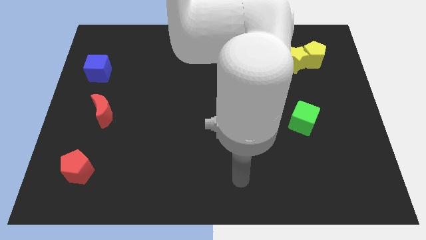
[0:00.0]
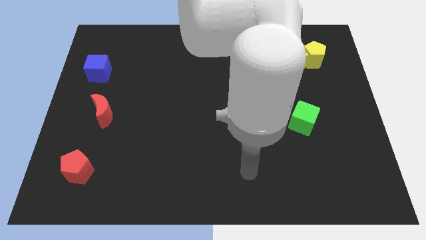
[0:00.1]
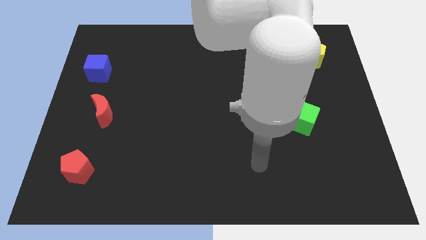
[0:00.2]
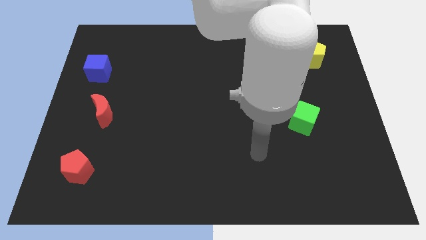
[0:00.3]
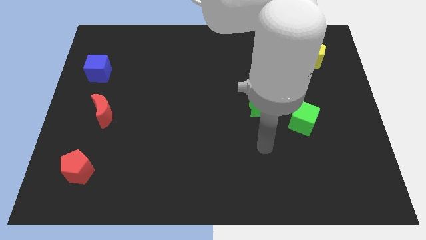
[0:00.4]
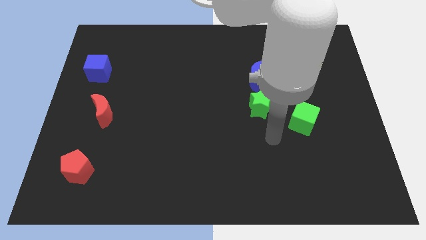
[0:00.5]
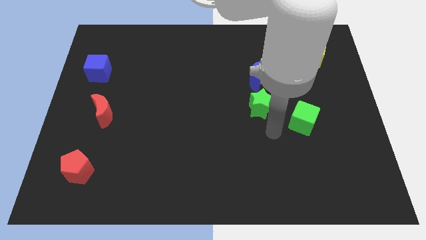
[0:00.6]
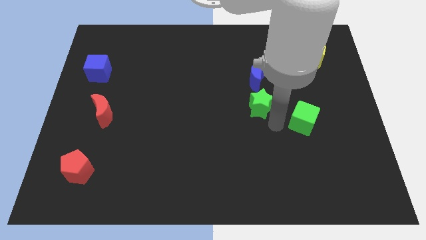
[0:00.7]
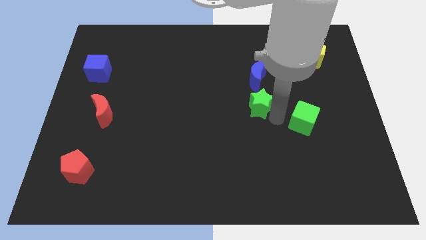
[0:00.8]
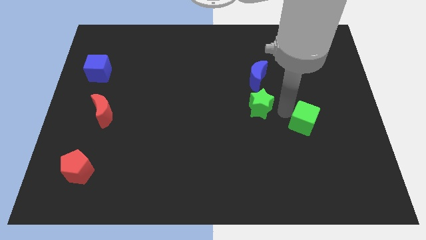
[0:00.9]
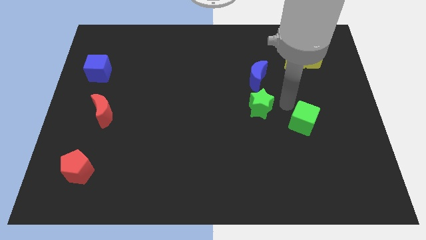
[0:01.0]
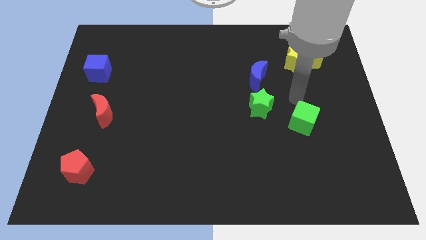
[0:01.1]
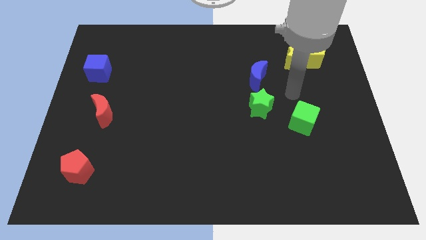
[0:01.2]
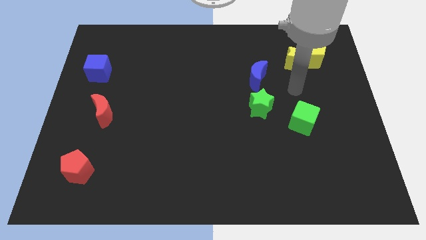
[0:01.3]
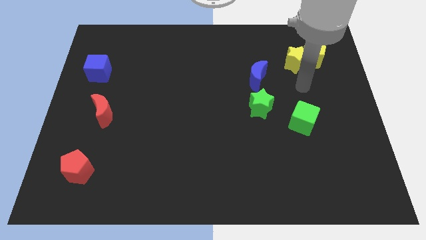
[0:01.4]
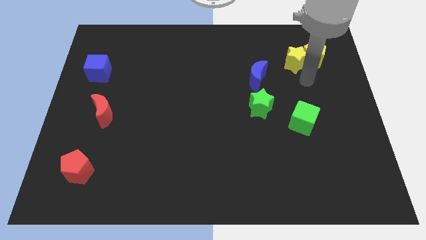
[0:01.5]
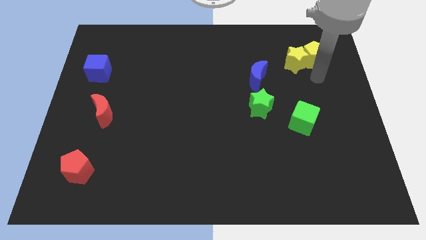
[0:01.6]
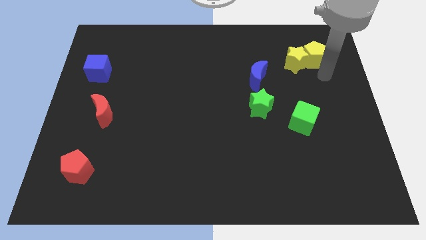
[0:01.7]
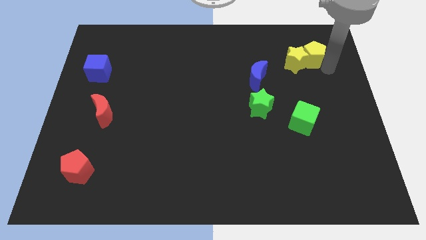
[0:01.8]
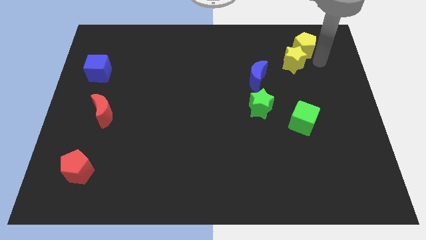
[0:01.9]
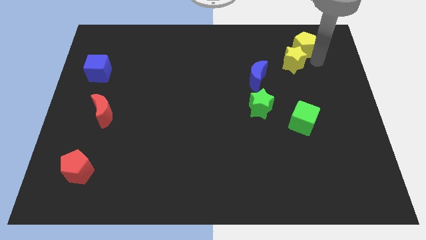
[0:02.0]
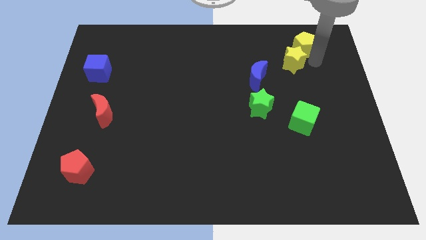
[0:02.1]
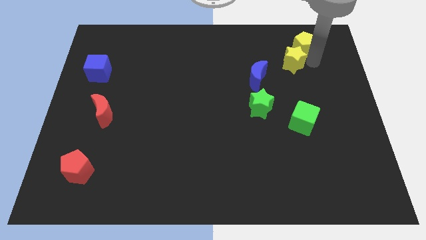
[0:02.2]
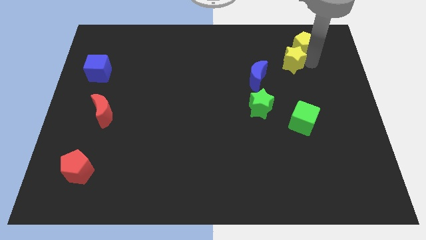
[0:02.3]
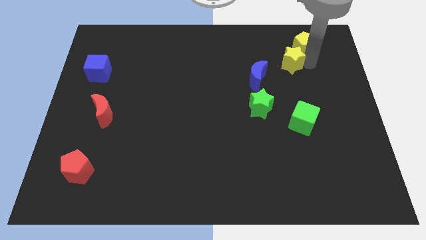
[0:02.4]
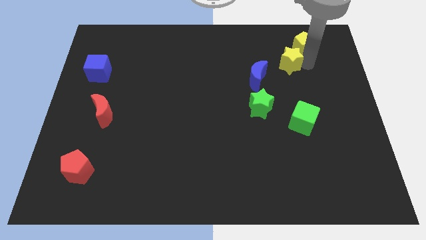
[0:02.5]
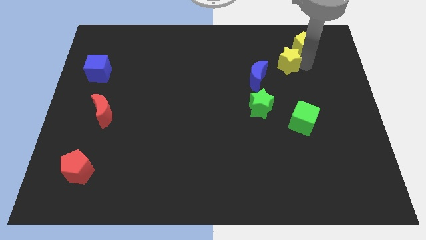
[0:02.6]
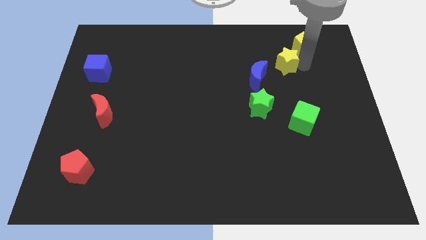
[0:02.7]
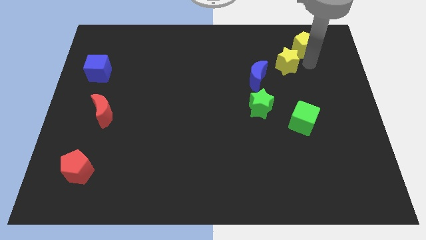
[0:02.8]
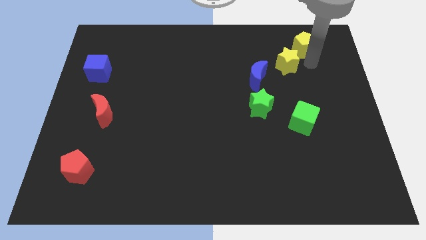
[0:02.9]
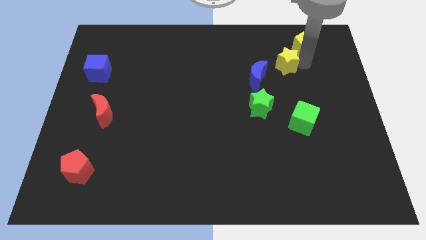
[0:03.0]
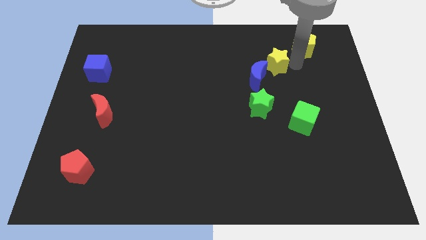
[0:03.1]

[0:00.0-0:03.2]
move the yellow star away from the yellow pentagon

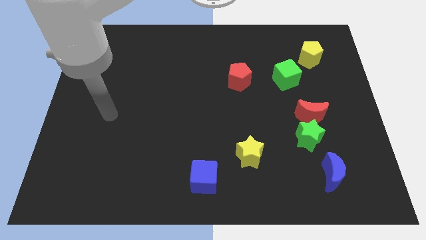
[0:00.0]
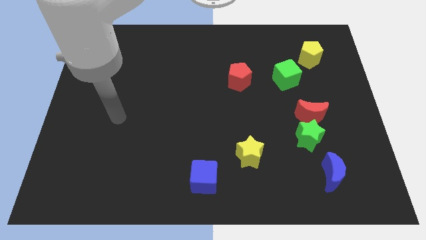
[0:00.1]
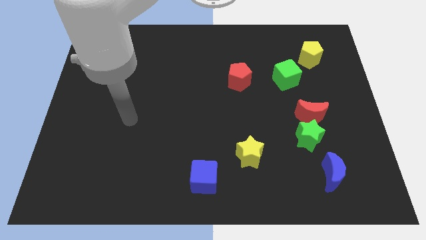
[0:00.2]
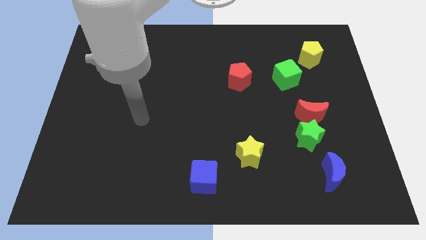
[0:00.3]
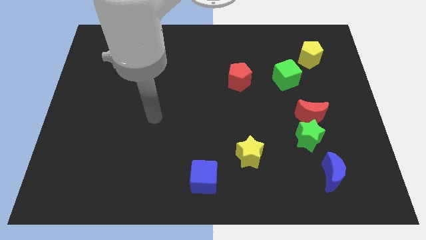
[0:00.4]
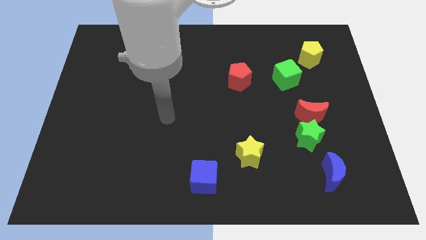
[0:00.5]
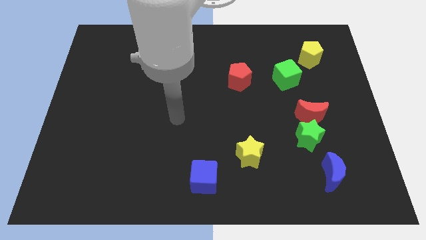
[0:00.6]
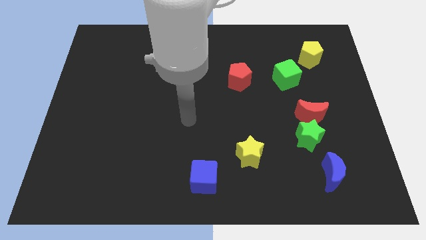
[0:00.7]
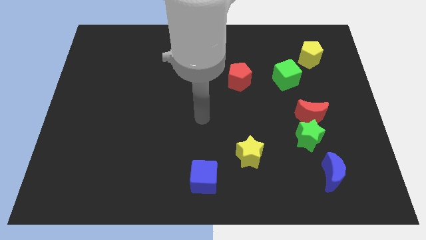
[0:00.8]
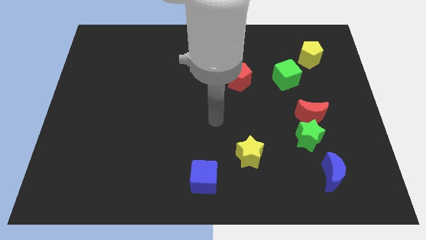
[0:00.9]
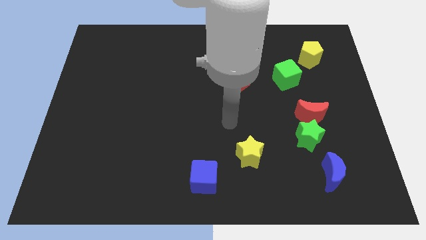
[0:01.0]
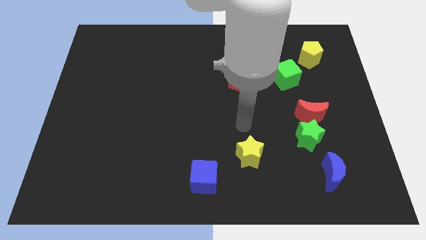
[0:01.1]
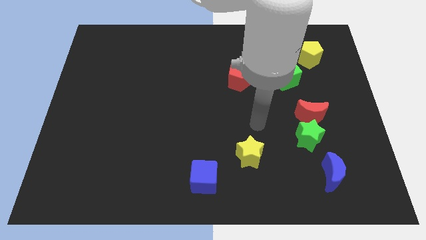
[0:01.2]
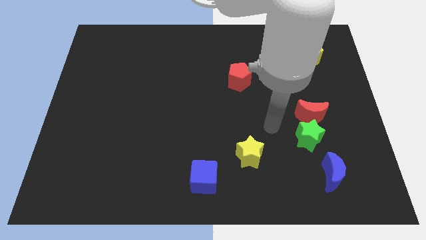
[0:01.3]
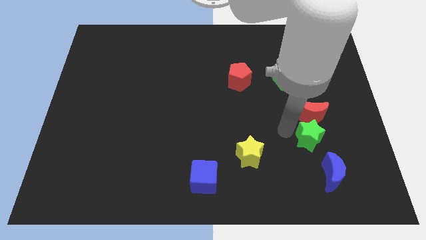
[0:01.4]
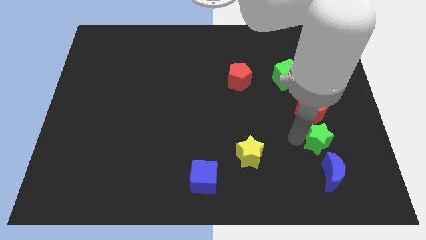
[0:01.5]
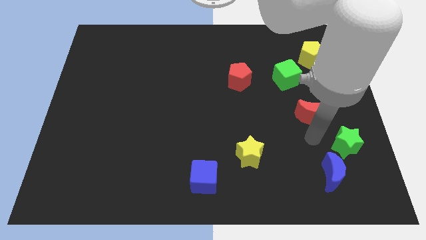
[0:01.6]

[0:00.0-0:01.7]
separate the red moon from the green star

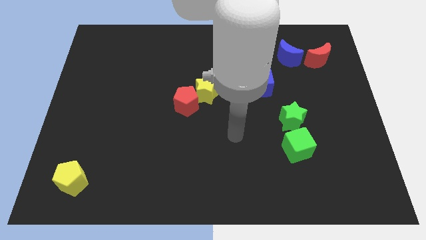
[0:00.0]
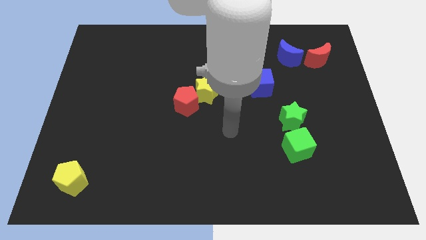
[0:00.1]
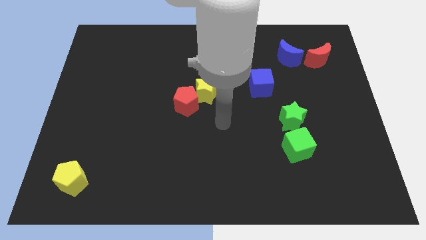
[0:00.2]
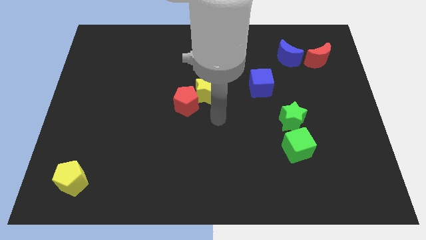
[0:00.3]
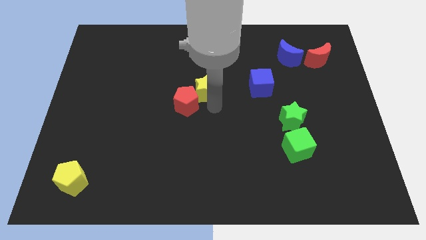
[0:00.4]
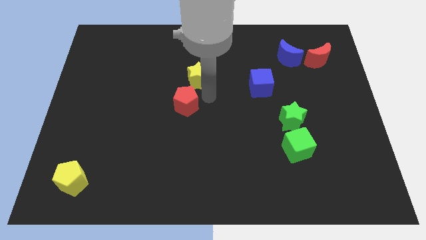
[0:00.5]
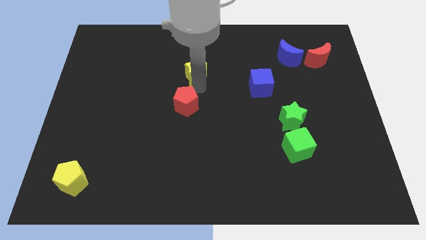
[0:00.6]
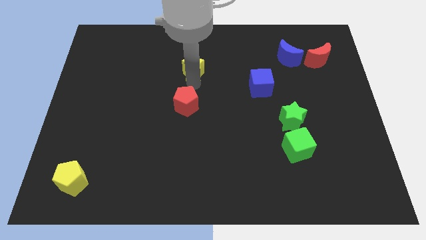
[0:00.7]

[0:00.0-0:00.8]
pull the red pentagon apart from the yellow star

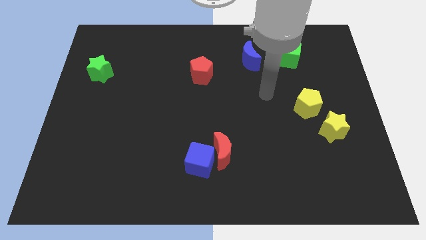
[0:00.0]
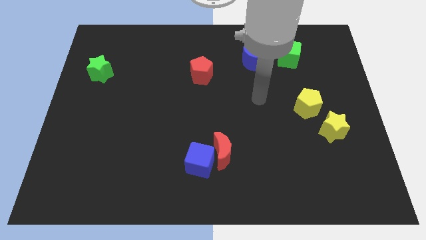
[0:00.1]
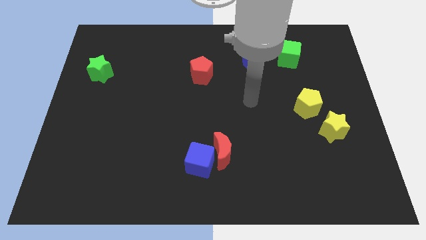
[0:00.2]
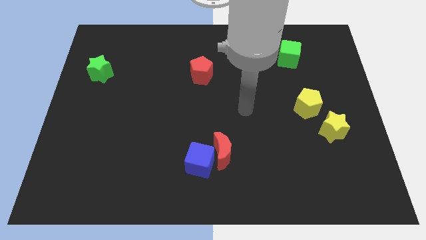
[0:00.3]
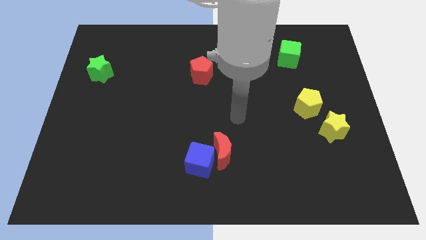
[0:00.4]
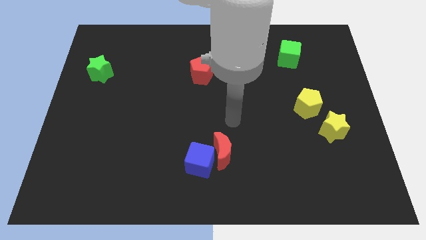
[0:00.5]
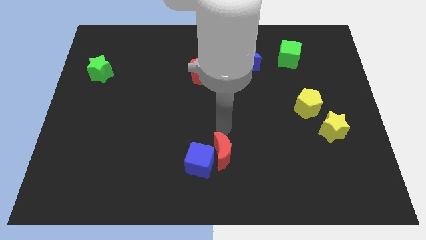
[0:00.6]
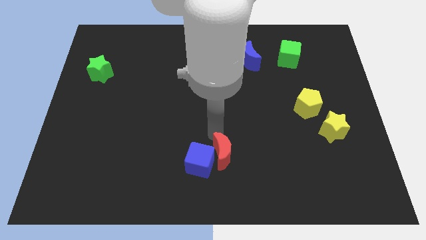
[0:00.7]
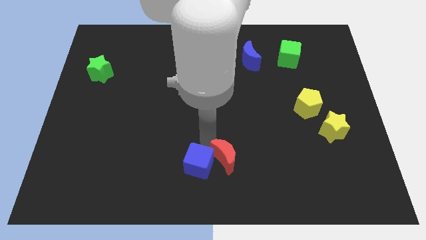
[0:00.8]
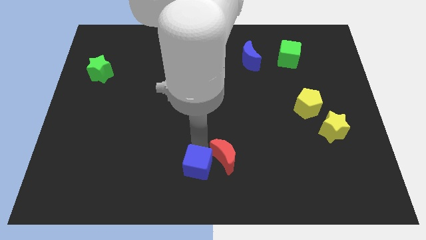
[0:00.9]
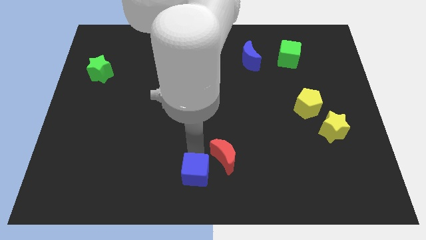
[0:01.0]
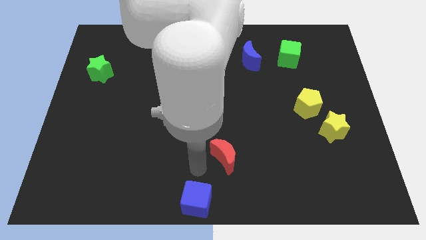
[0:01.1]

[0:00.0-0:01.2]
move the red moon away from the blue cube

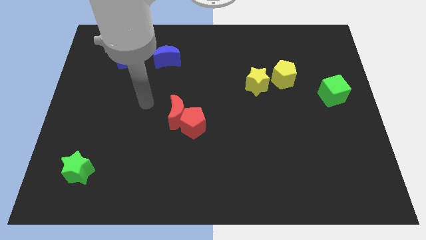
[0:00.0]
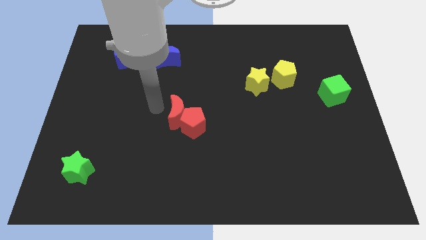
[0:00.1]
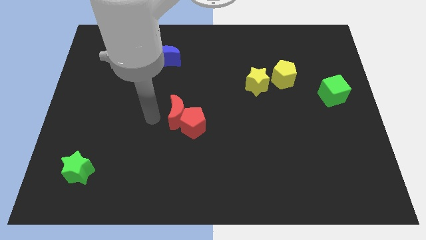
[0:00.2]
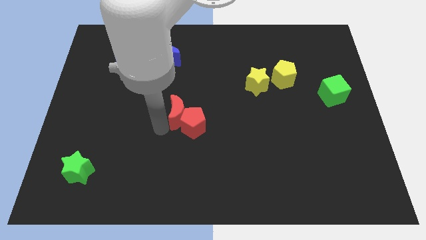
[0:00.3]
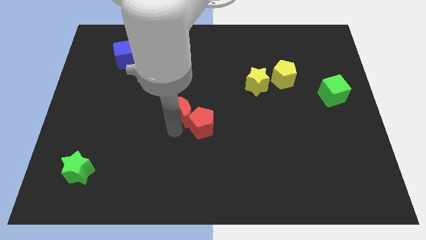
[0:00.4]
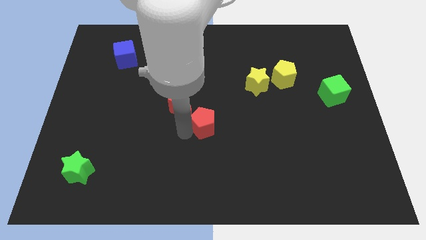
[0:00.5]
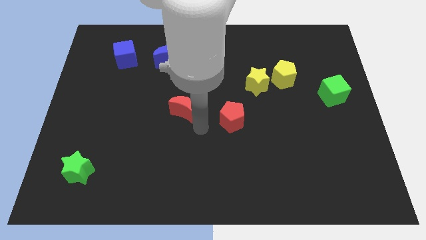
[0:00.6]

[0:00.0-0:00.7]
move the red moon away from the red pentagon

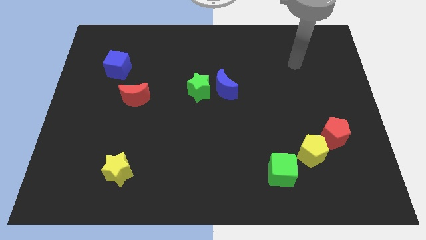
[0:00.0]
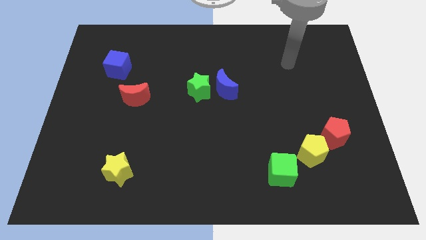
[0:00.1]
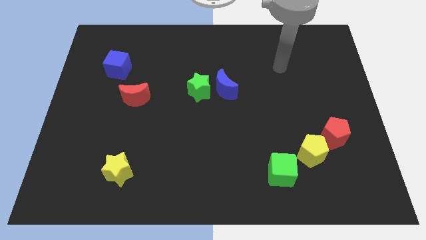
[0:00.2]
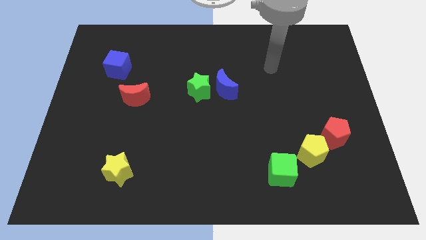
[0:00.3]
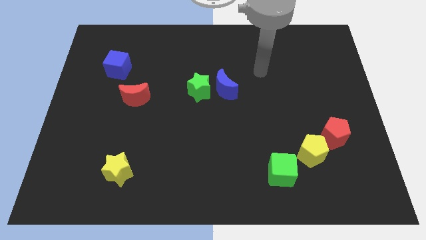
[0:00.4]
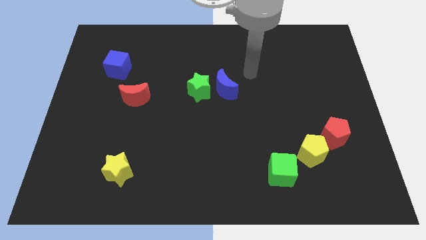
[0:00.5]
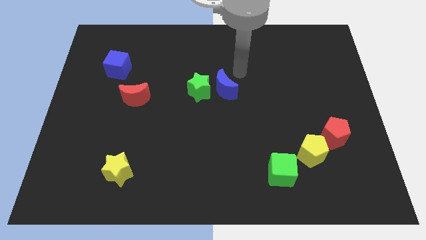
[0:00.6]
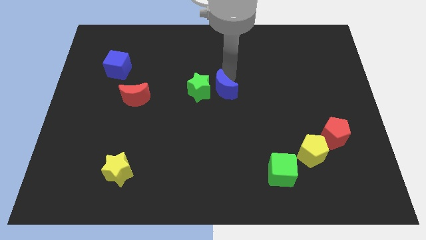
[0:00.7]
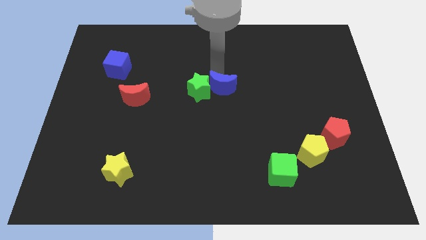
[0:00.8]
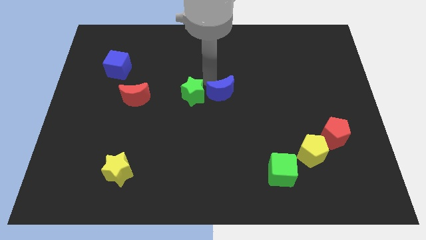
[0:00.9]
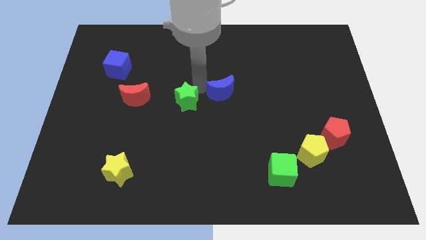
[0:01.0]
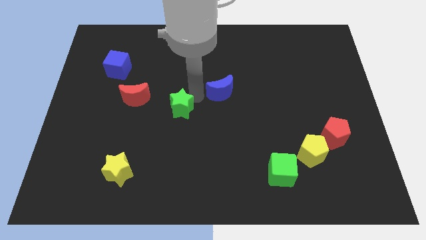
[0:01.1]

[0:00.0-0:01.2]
separate the blue moon from the green star

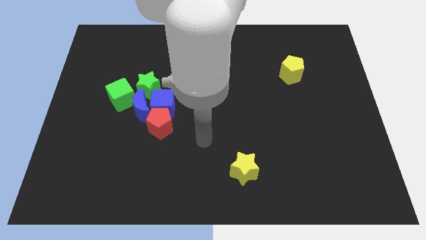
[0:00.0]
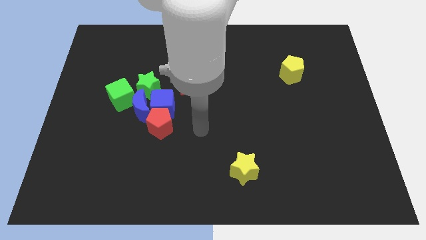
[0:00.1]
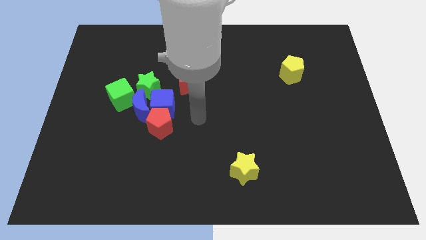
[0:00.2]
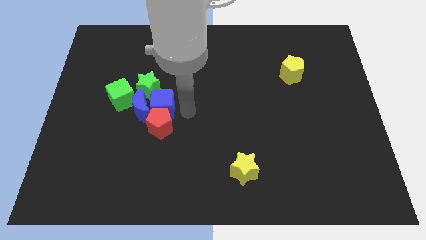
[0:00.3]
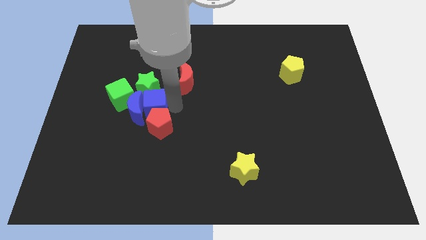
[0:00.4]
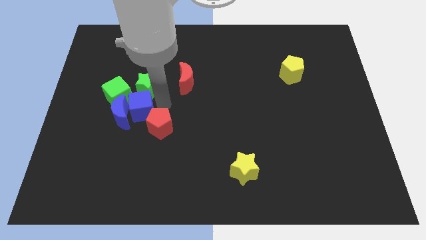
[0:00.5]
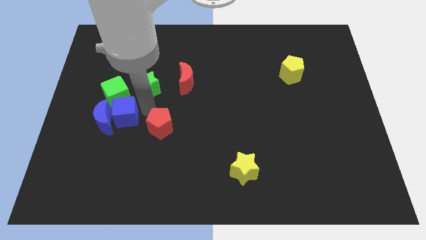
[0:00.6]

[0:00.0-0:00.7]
move the red pentagon away from the blue cube and blue moon
